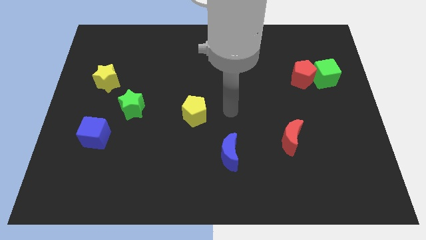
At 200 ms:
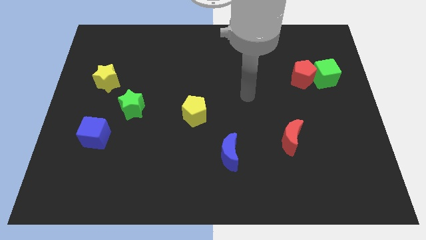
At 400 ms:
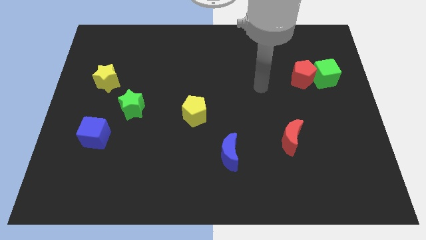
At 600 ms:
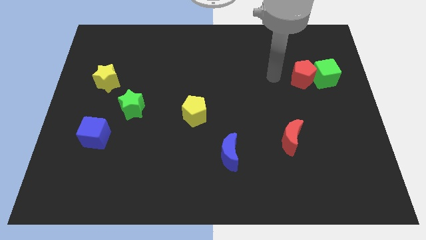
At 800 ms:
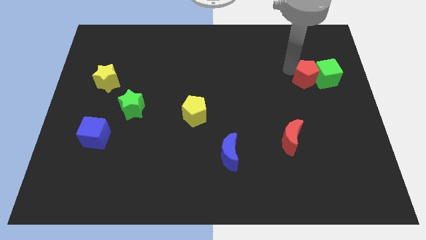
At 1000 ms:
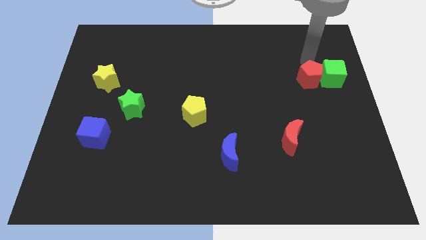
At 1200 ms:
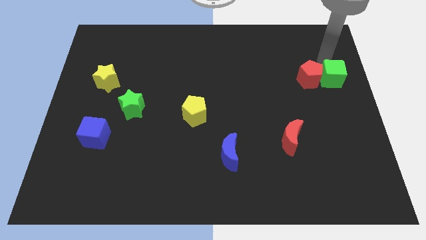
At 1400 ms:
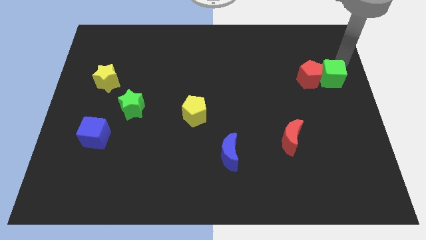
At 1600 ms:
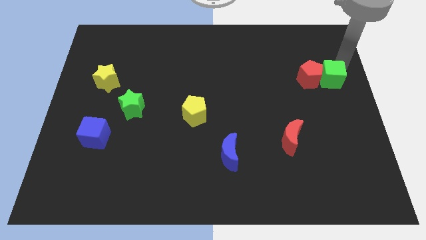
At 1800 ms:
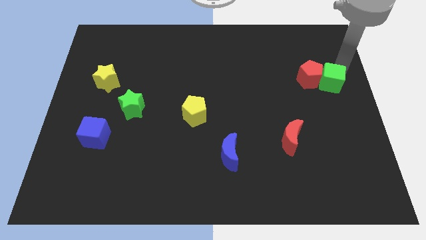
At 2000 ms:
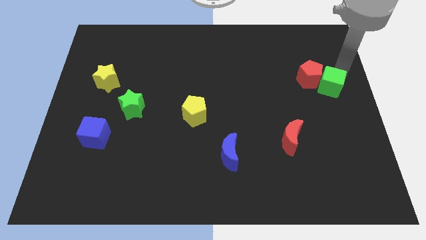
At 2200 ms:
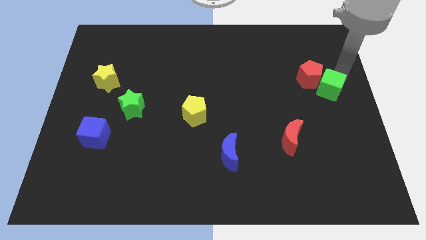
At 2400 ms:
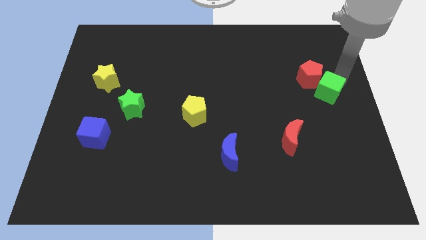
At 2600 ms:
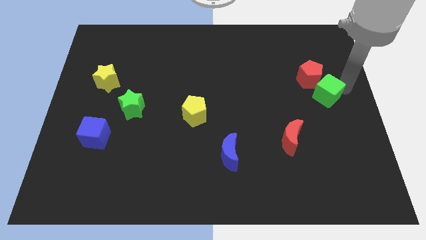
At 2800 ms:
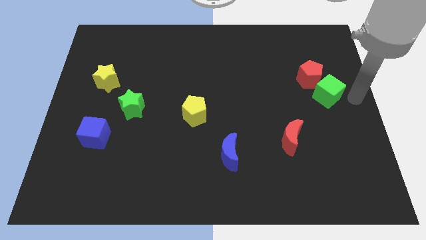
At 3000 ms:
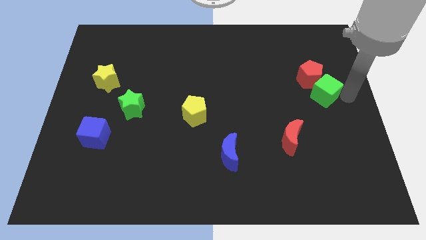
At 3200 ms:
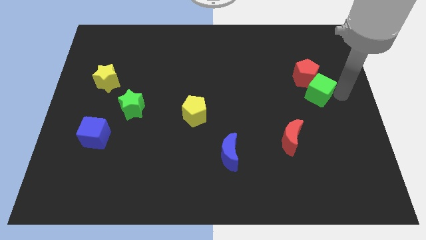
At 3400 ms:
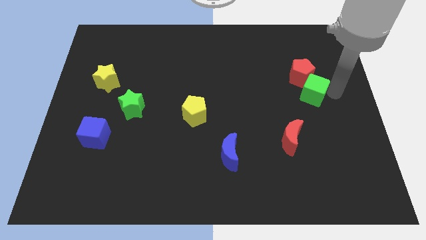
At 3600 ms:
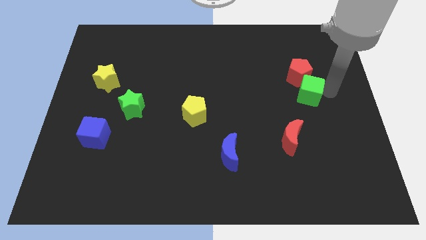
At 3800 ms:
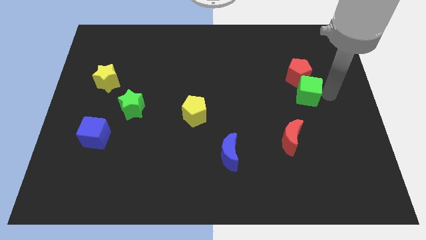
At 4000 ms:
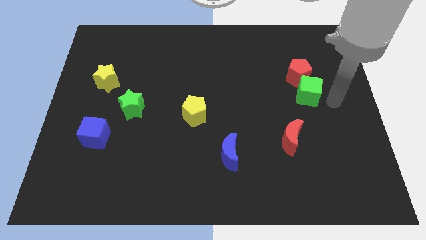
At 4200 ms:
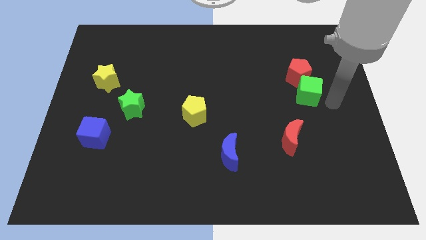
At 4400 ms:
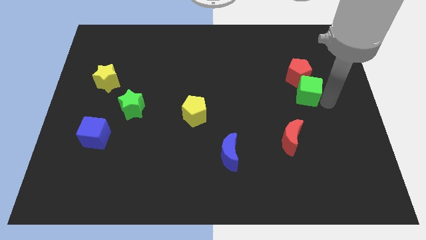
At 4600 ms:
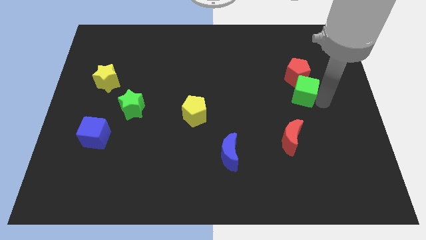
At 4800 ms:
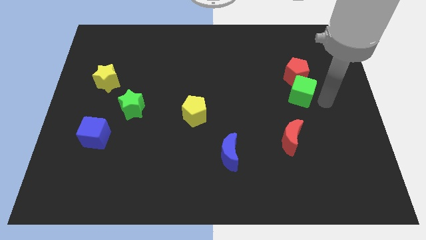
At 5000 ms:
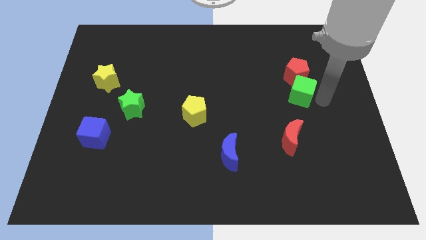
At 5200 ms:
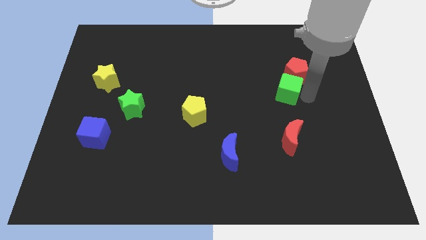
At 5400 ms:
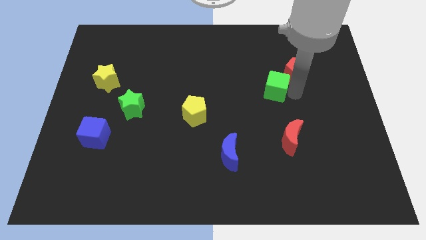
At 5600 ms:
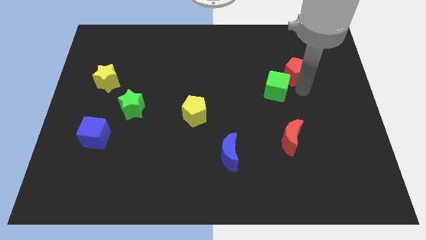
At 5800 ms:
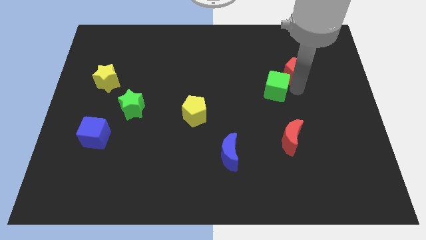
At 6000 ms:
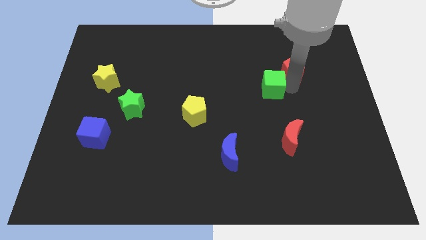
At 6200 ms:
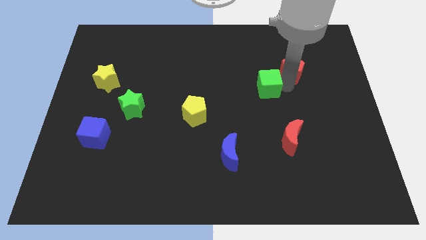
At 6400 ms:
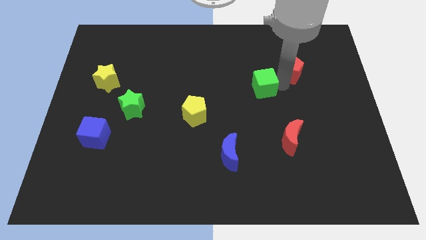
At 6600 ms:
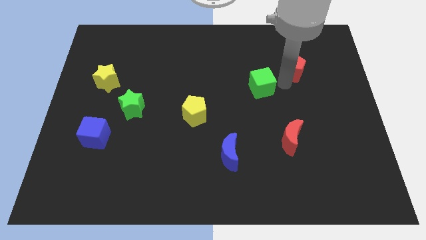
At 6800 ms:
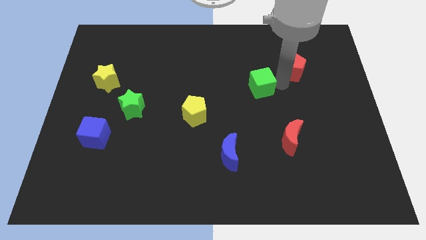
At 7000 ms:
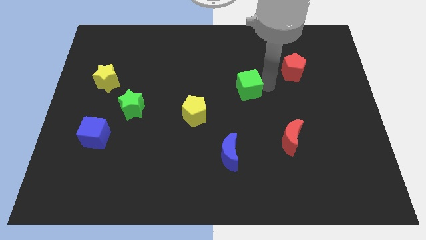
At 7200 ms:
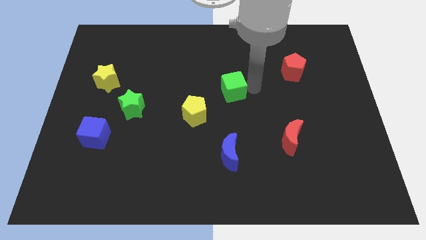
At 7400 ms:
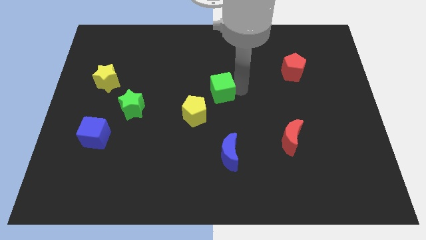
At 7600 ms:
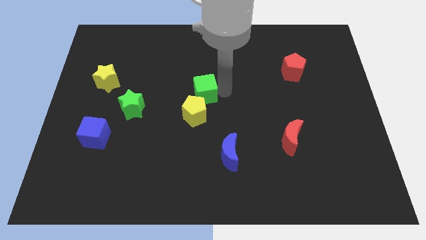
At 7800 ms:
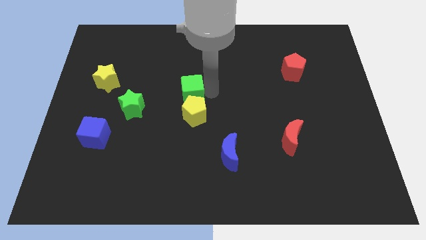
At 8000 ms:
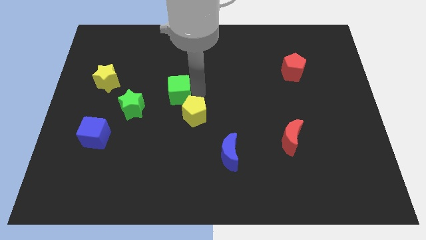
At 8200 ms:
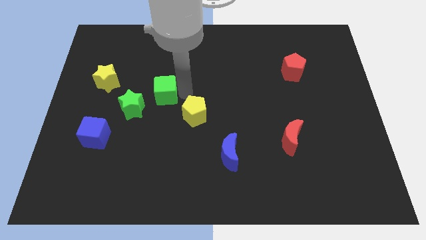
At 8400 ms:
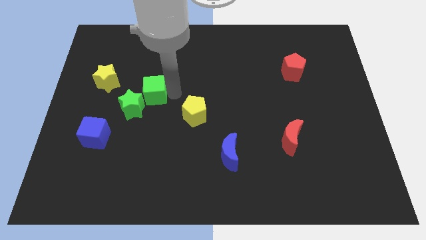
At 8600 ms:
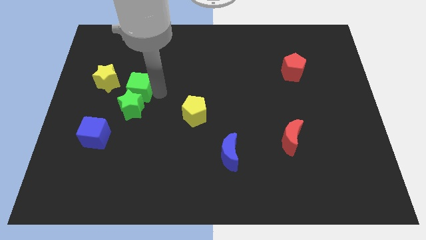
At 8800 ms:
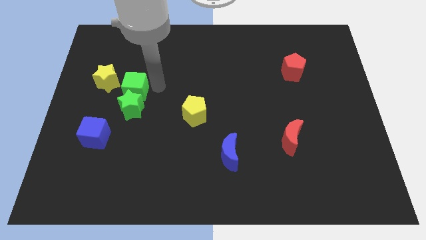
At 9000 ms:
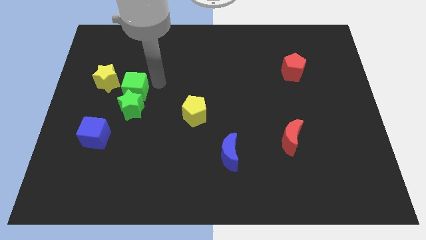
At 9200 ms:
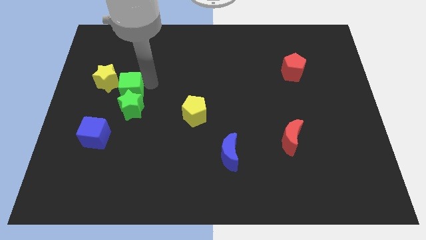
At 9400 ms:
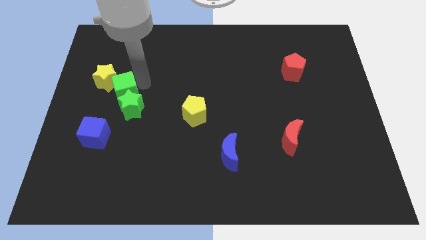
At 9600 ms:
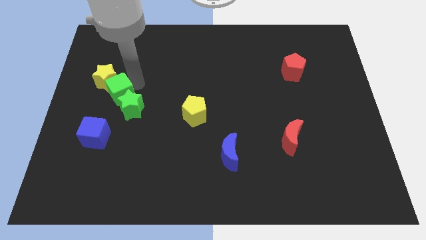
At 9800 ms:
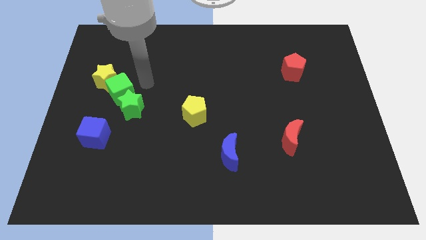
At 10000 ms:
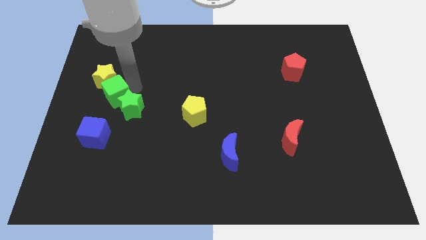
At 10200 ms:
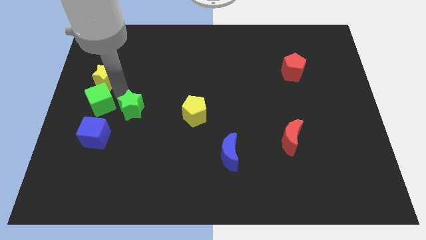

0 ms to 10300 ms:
push the green cube to the left side of the board

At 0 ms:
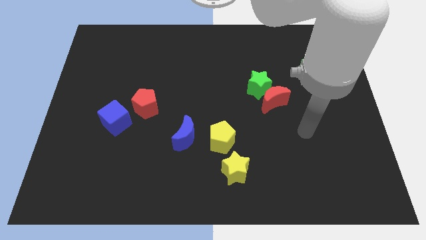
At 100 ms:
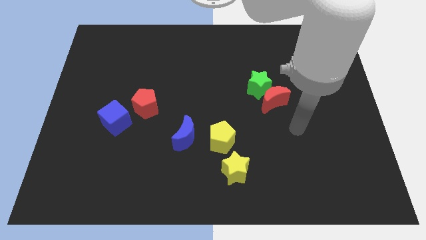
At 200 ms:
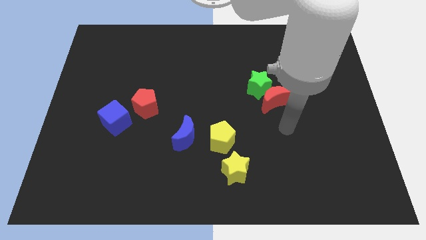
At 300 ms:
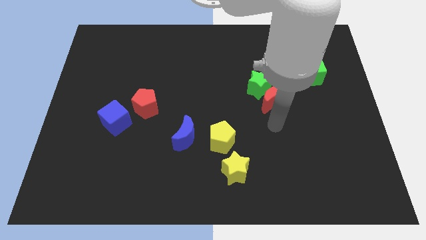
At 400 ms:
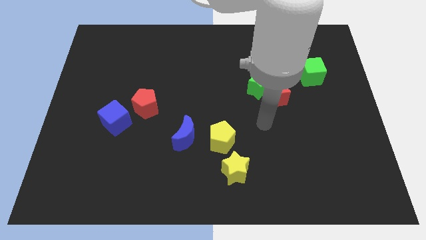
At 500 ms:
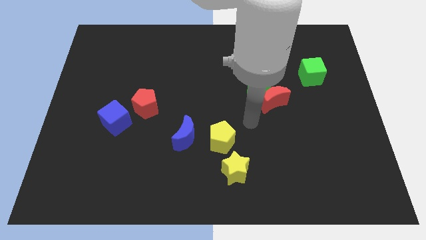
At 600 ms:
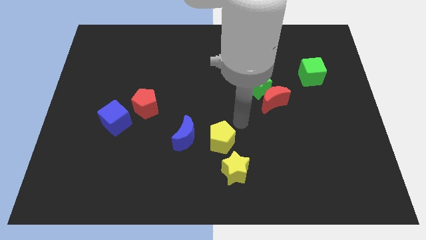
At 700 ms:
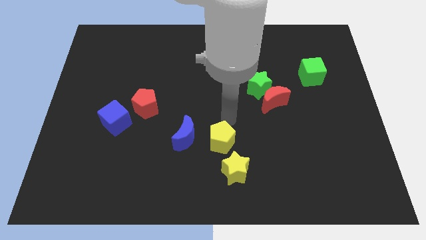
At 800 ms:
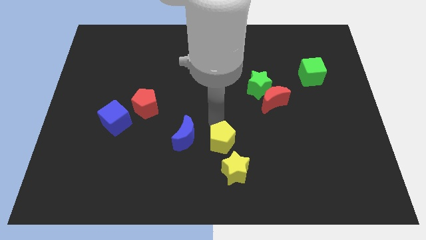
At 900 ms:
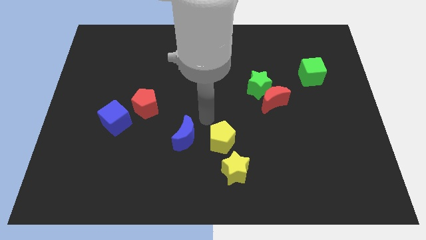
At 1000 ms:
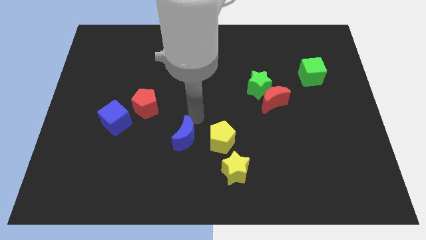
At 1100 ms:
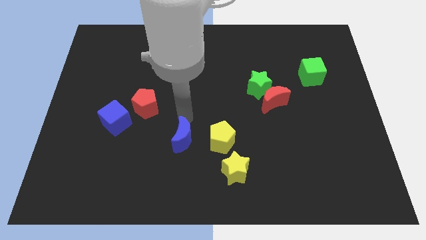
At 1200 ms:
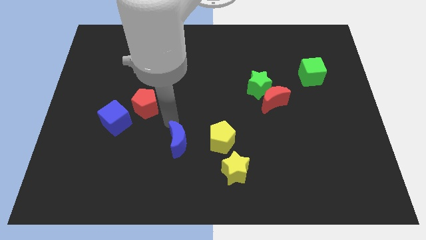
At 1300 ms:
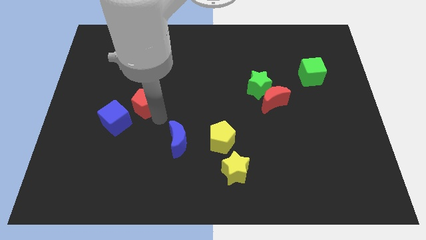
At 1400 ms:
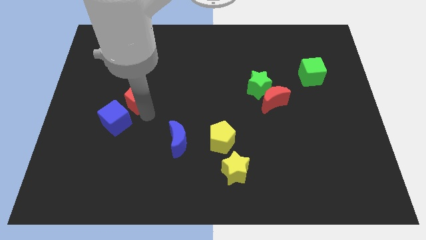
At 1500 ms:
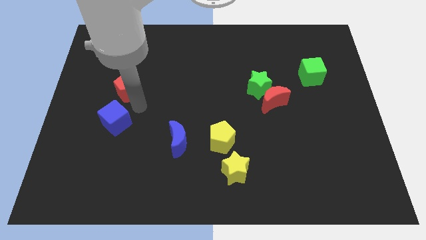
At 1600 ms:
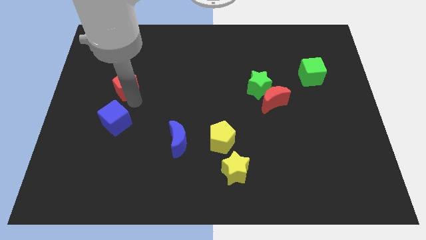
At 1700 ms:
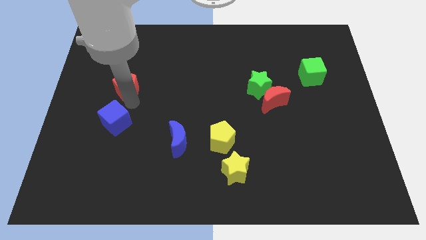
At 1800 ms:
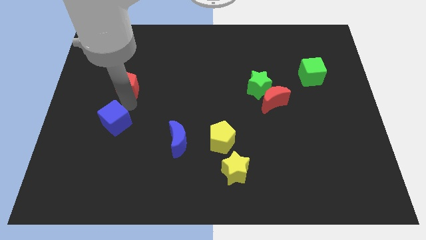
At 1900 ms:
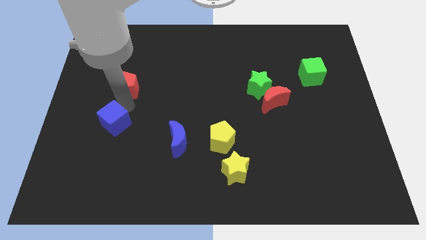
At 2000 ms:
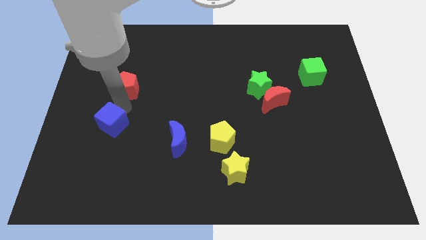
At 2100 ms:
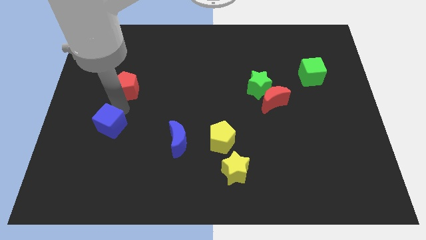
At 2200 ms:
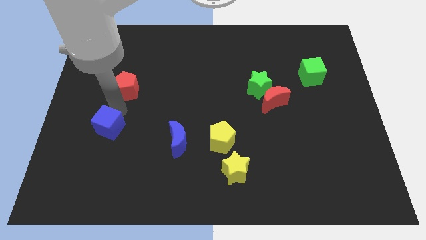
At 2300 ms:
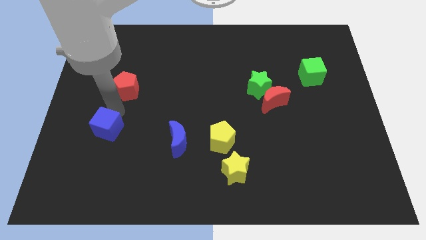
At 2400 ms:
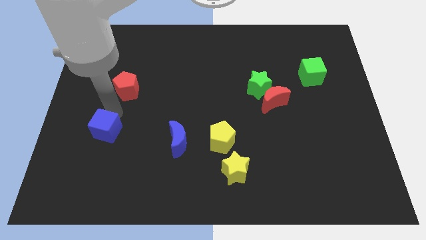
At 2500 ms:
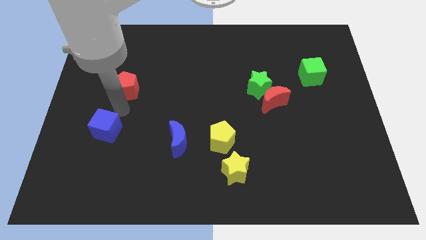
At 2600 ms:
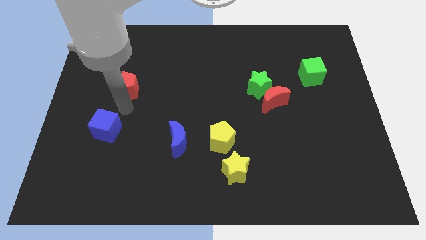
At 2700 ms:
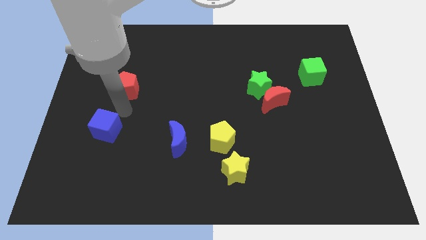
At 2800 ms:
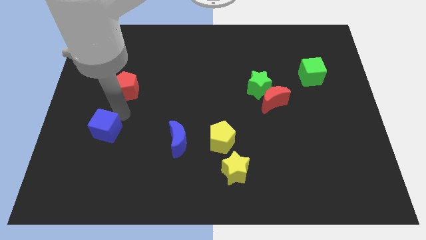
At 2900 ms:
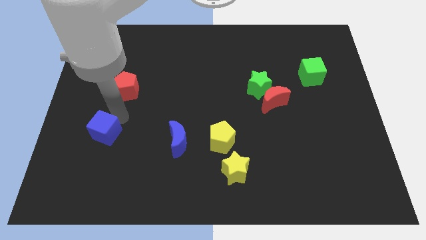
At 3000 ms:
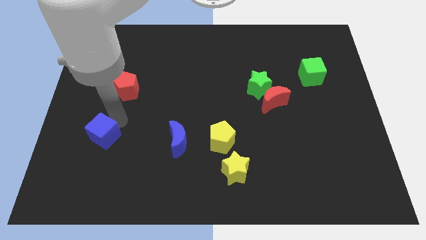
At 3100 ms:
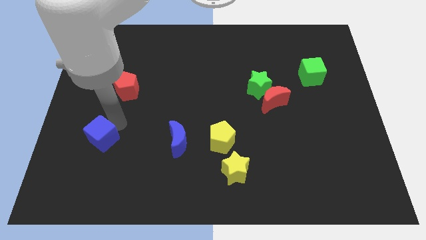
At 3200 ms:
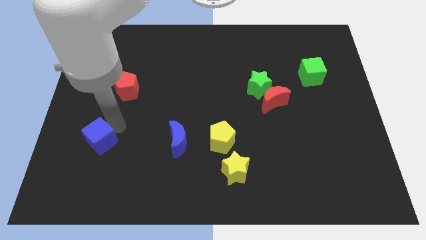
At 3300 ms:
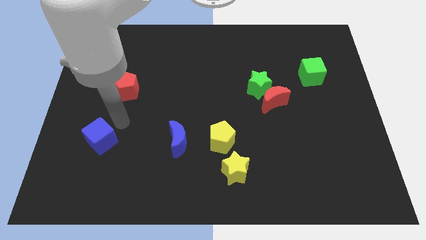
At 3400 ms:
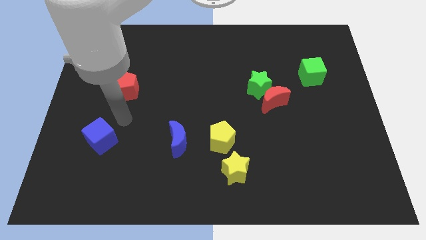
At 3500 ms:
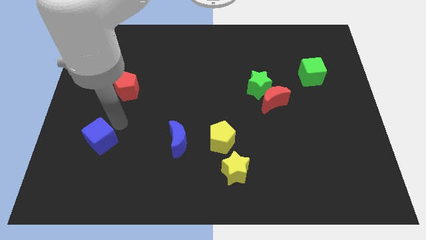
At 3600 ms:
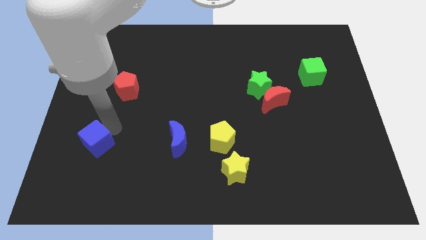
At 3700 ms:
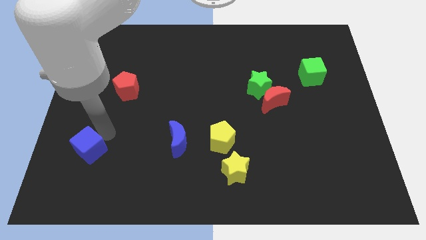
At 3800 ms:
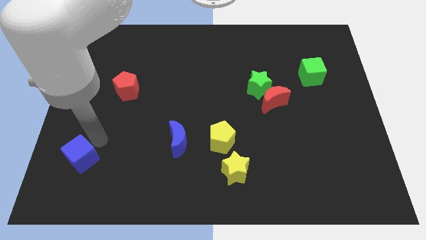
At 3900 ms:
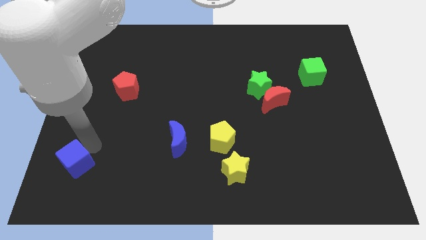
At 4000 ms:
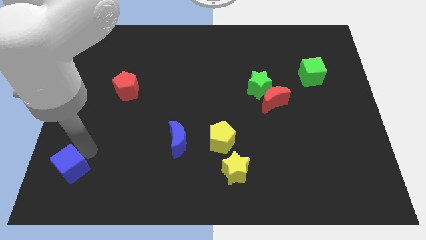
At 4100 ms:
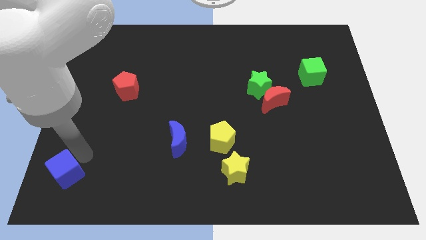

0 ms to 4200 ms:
put the blue cube to the bottom left of the board
